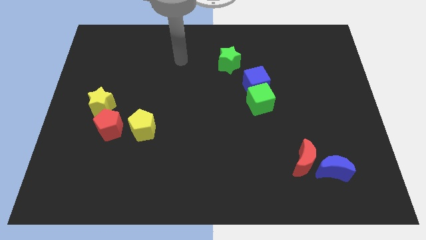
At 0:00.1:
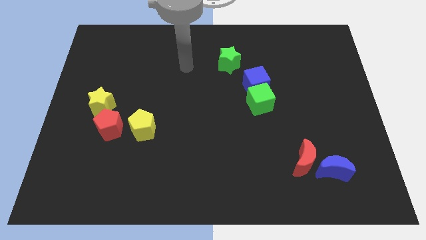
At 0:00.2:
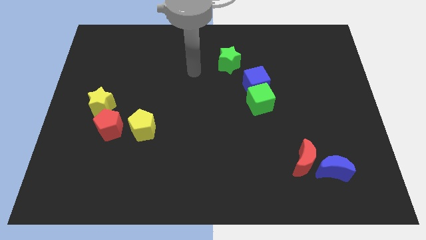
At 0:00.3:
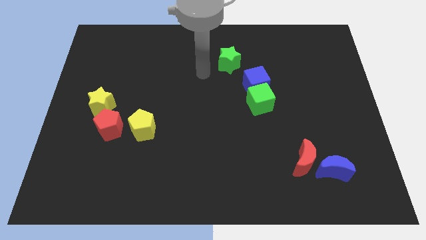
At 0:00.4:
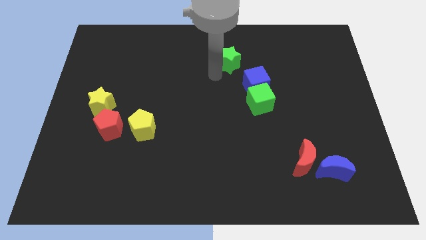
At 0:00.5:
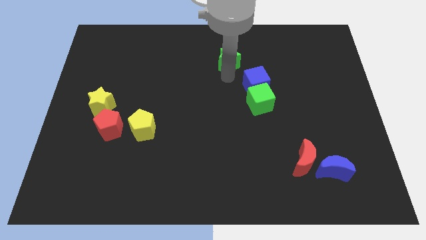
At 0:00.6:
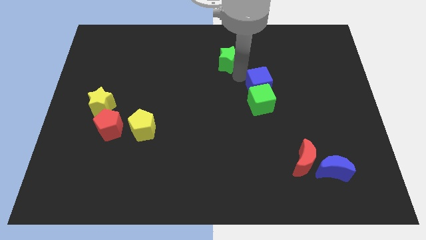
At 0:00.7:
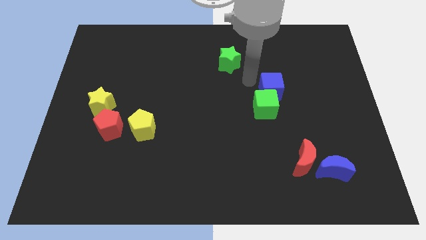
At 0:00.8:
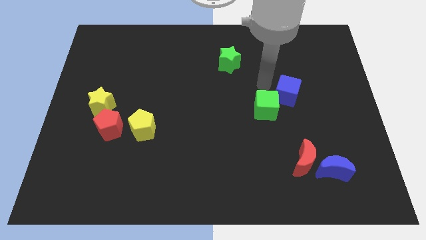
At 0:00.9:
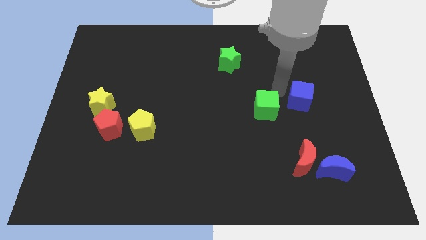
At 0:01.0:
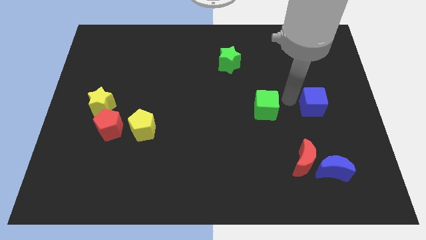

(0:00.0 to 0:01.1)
move the green cube away from the blue cube

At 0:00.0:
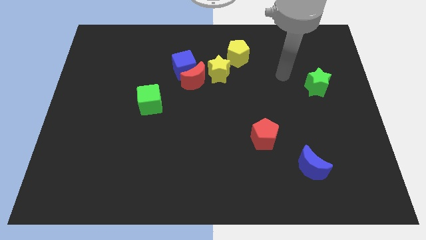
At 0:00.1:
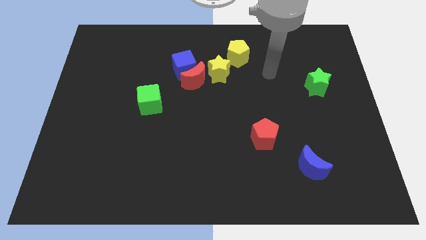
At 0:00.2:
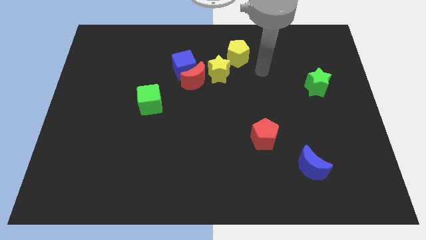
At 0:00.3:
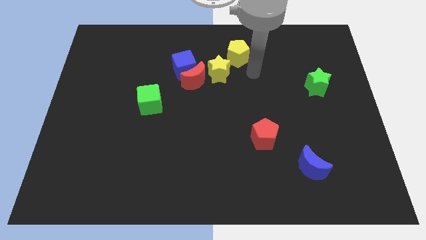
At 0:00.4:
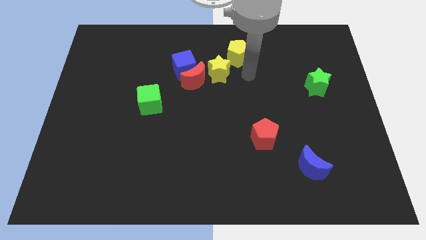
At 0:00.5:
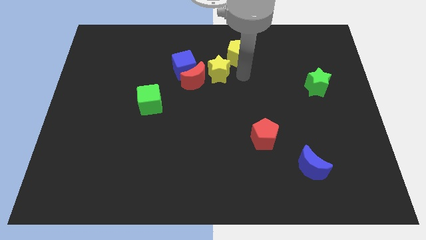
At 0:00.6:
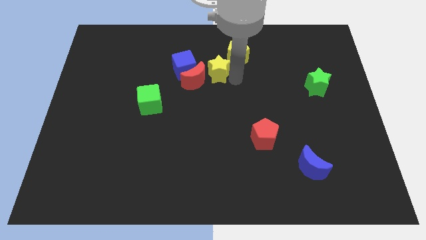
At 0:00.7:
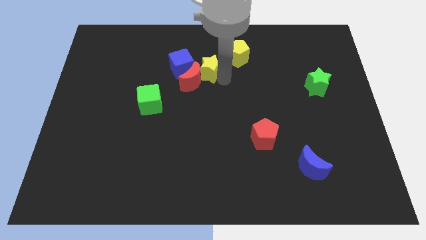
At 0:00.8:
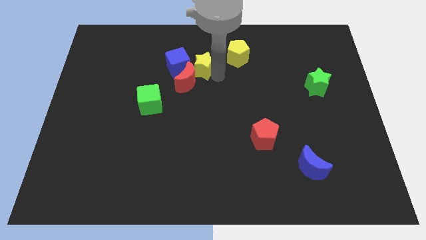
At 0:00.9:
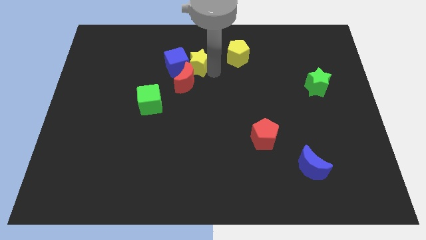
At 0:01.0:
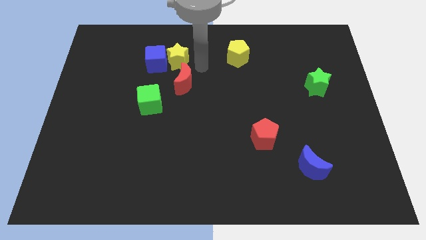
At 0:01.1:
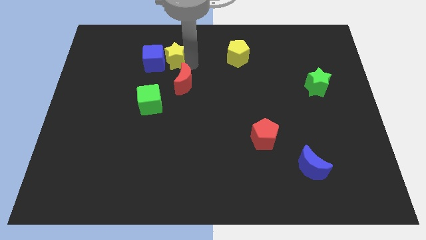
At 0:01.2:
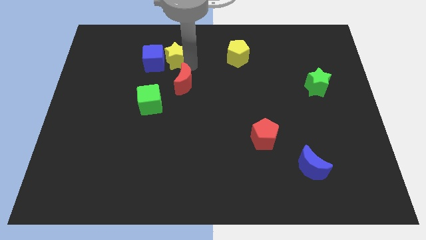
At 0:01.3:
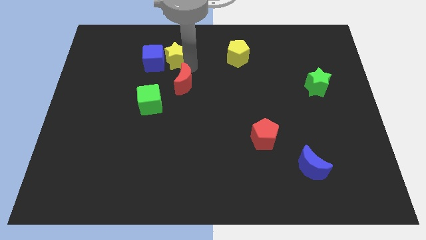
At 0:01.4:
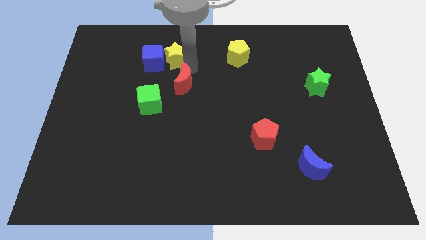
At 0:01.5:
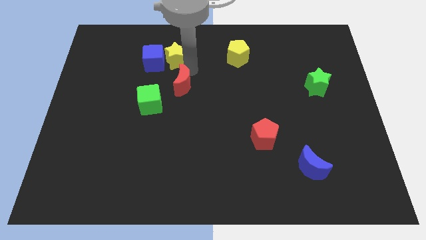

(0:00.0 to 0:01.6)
move the red moon away from the blue cube and yellow star

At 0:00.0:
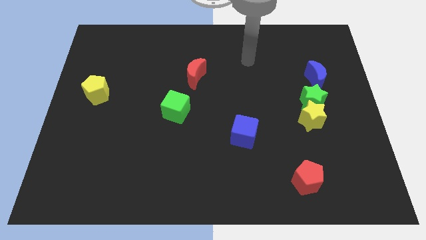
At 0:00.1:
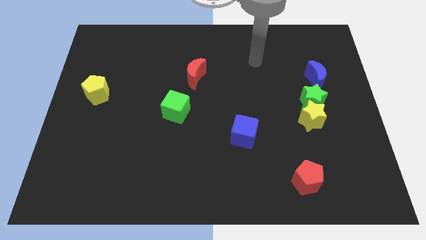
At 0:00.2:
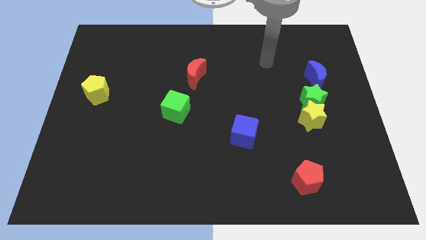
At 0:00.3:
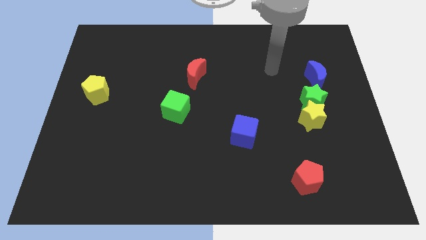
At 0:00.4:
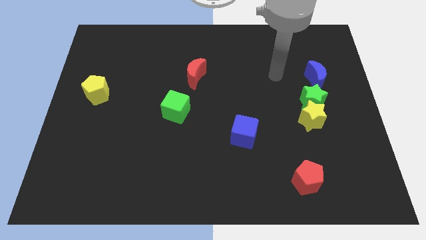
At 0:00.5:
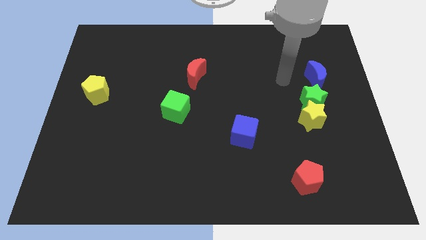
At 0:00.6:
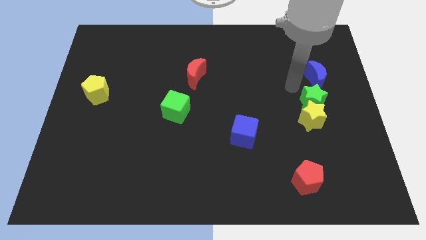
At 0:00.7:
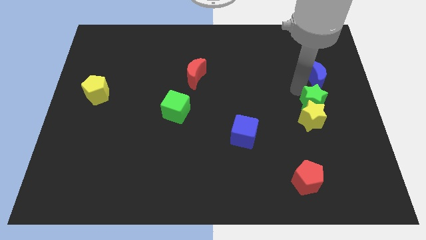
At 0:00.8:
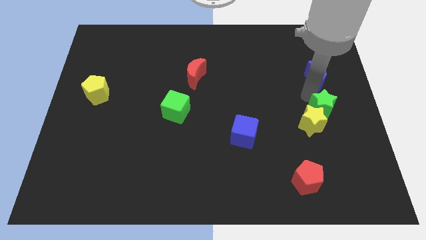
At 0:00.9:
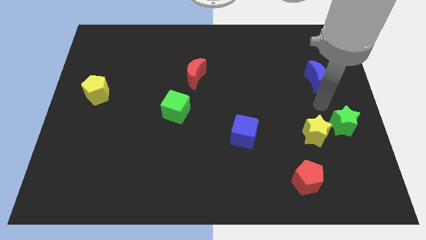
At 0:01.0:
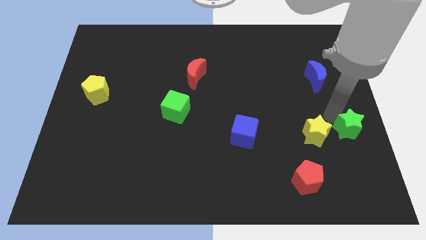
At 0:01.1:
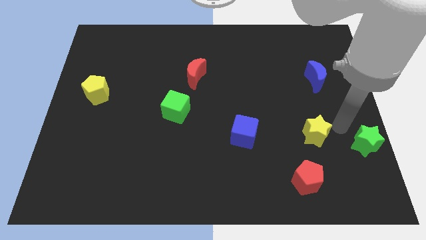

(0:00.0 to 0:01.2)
separate the yellow star from the green star

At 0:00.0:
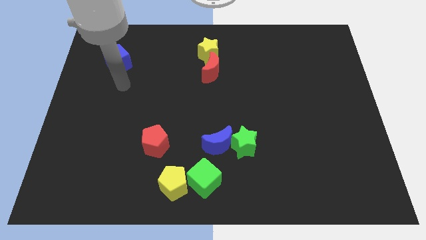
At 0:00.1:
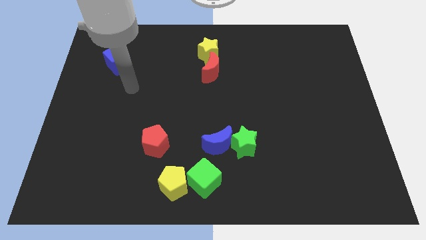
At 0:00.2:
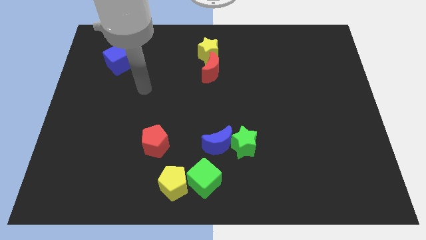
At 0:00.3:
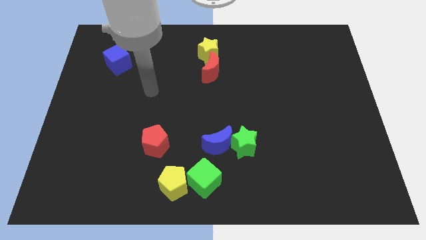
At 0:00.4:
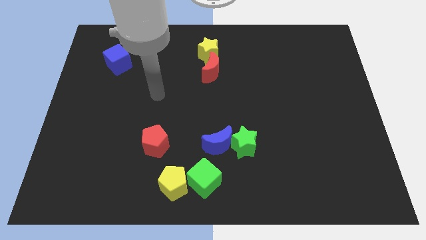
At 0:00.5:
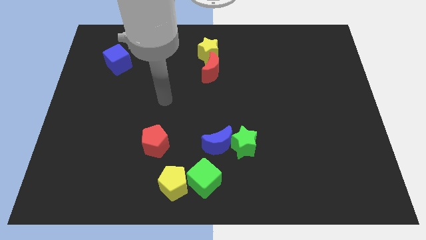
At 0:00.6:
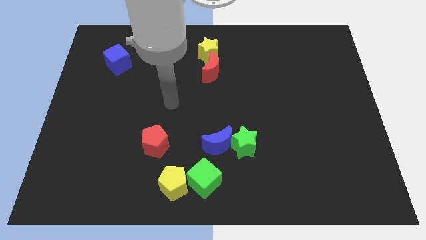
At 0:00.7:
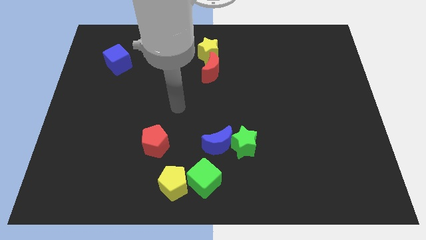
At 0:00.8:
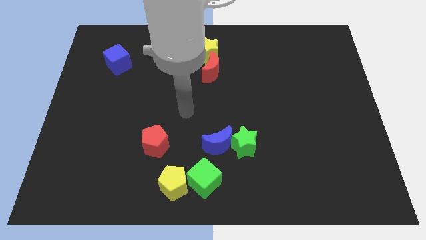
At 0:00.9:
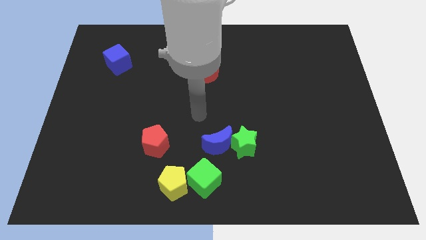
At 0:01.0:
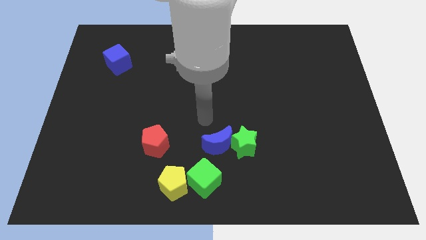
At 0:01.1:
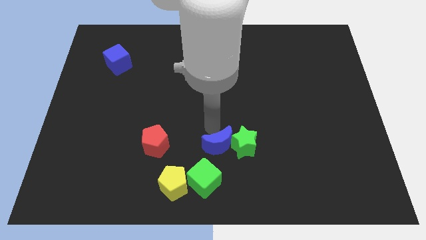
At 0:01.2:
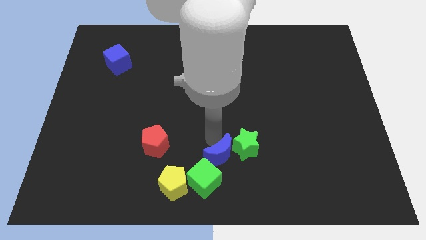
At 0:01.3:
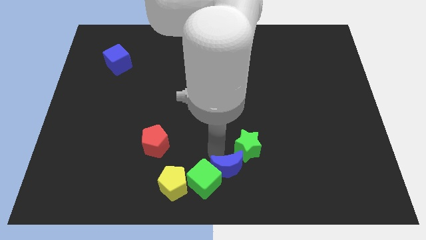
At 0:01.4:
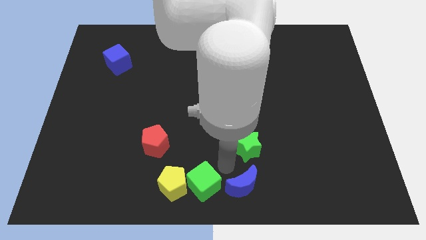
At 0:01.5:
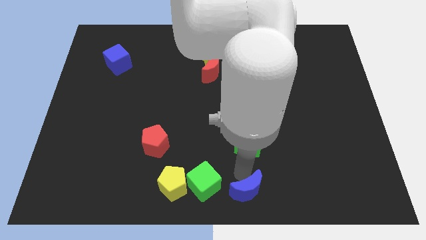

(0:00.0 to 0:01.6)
separate the green star from the blue moon

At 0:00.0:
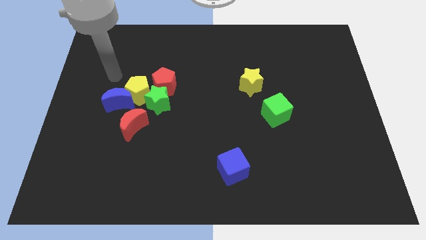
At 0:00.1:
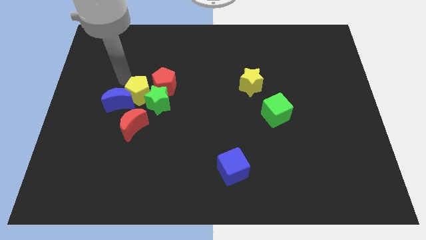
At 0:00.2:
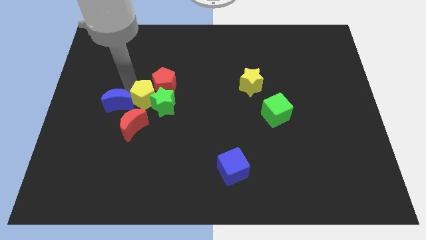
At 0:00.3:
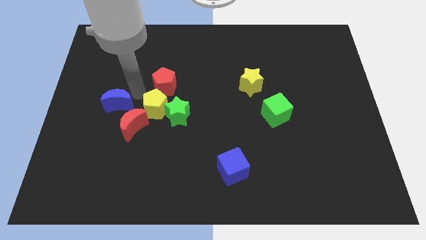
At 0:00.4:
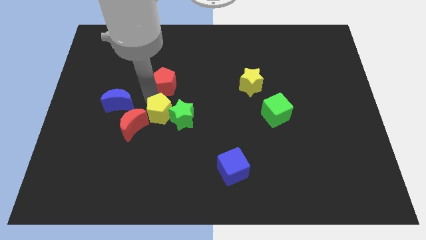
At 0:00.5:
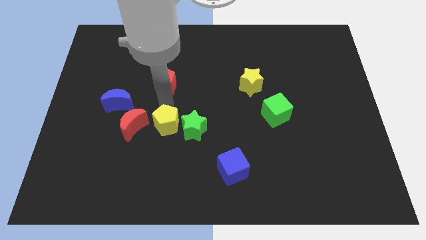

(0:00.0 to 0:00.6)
separate the red pentagon from the green star and yellow pentagon

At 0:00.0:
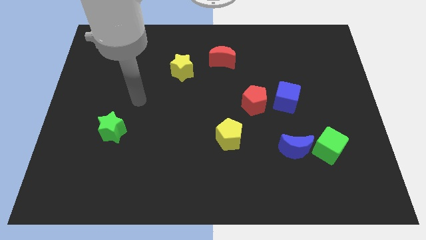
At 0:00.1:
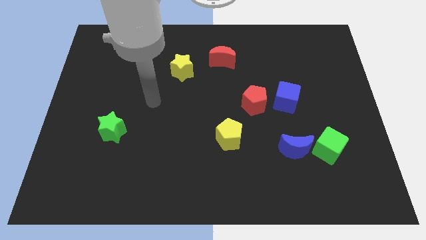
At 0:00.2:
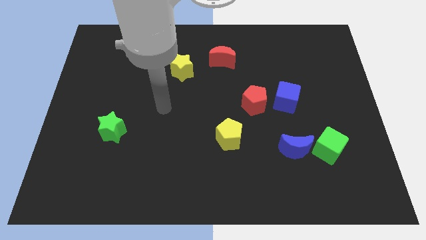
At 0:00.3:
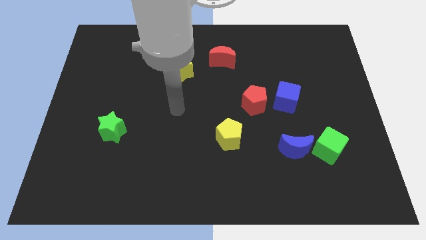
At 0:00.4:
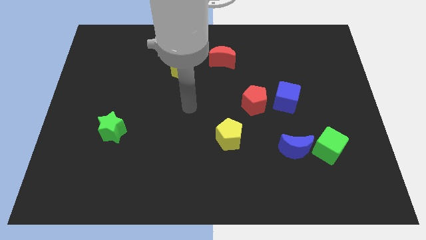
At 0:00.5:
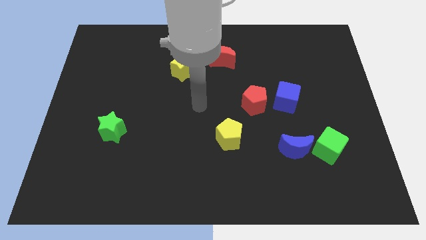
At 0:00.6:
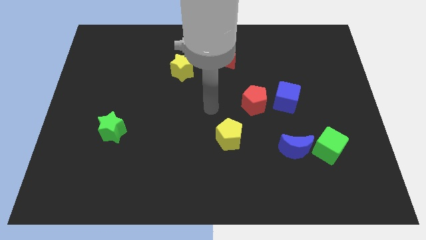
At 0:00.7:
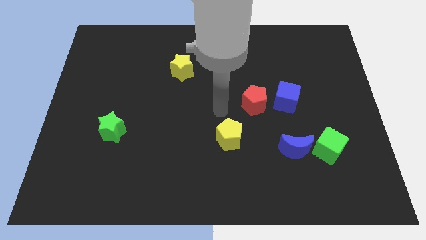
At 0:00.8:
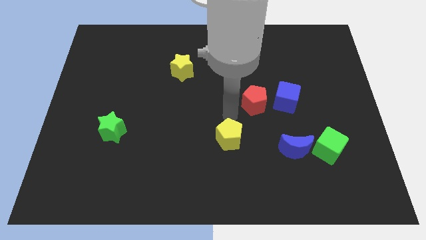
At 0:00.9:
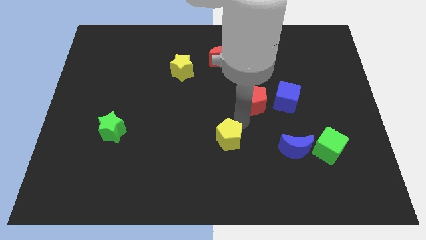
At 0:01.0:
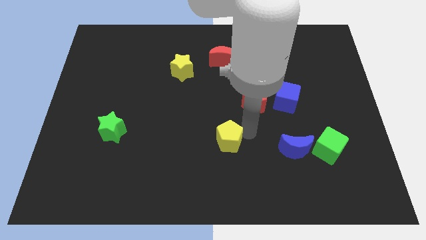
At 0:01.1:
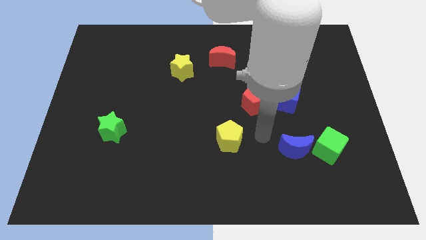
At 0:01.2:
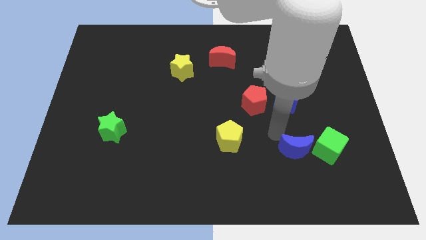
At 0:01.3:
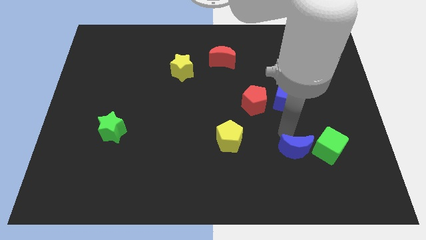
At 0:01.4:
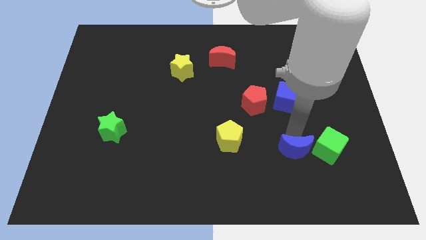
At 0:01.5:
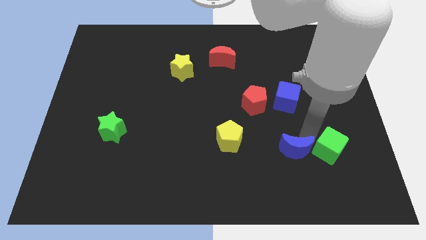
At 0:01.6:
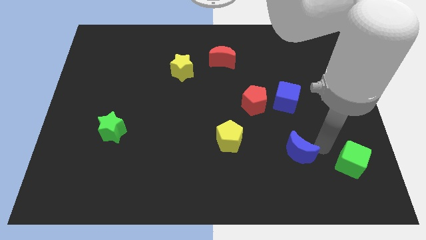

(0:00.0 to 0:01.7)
separate the blue moon from the green cube

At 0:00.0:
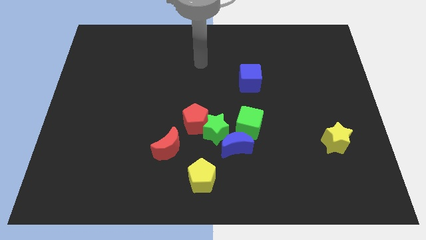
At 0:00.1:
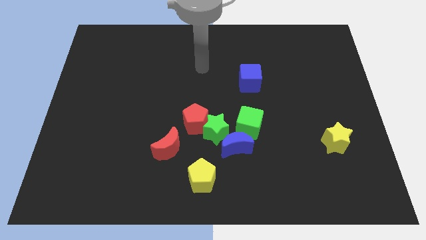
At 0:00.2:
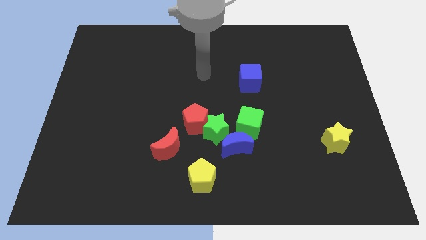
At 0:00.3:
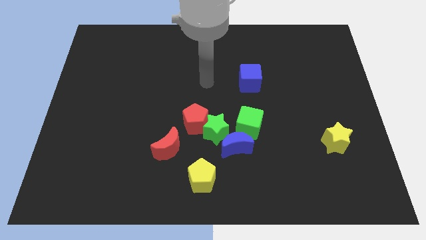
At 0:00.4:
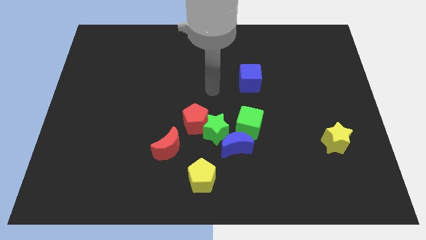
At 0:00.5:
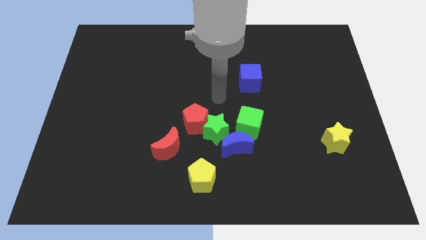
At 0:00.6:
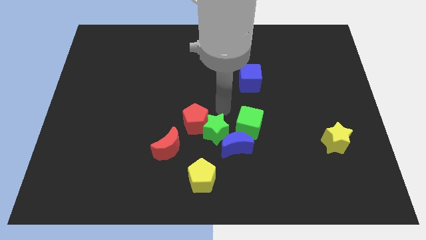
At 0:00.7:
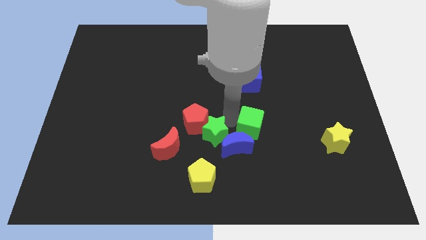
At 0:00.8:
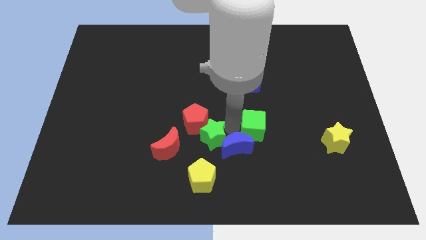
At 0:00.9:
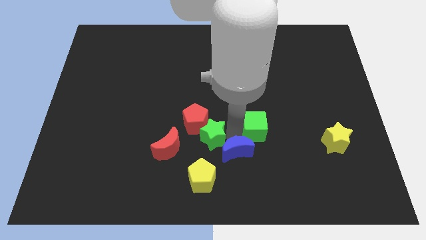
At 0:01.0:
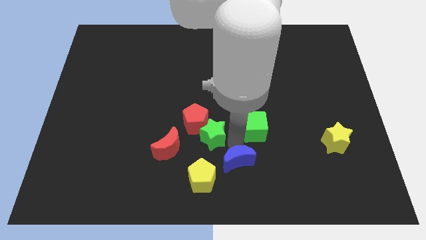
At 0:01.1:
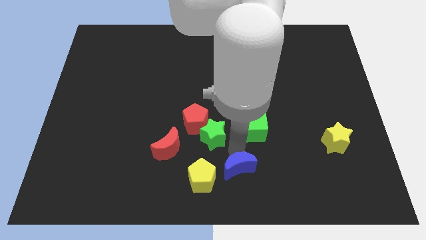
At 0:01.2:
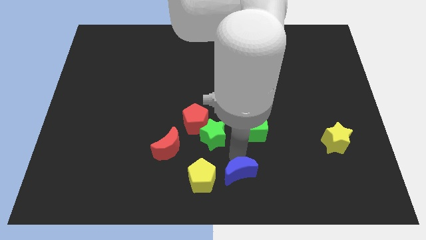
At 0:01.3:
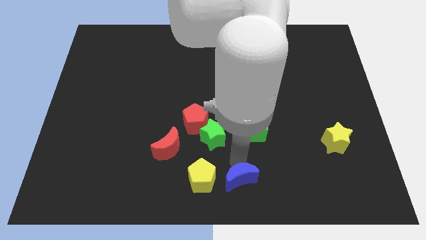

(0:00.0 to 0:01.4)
move the blue moon away from the green star and green cube
